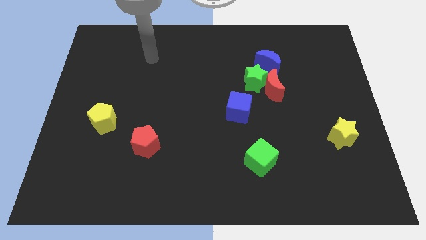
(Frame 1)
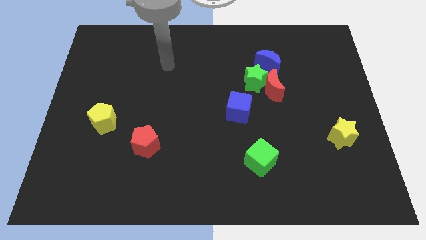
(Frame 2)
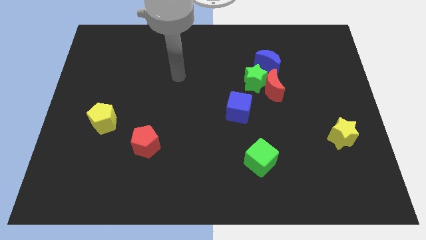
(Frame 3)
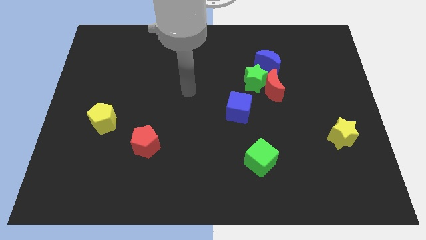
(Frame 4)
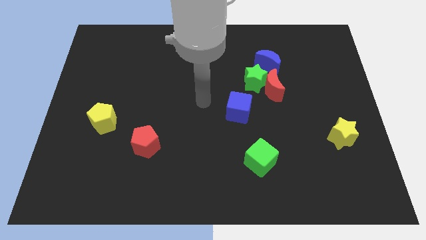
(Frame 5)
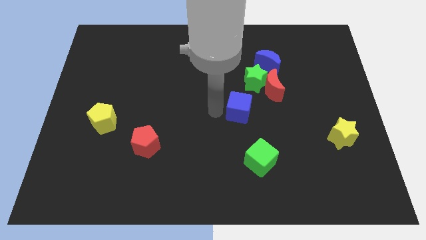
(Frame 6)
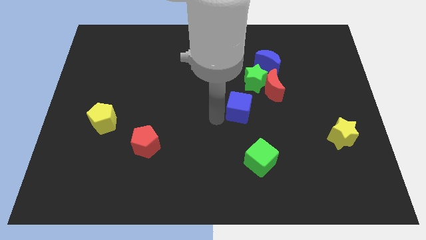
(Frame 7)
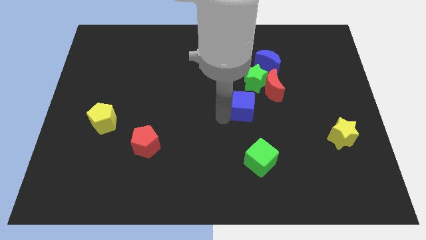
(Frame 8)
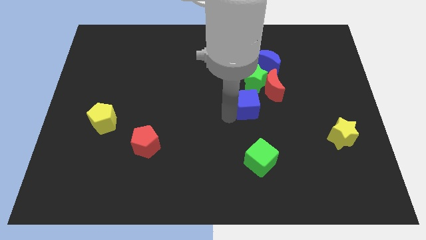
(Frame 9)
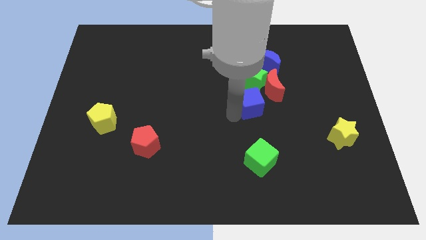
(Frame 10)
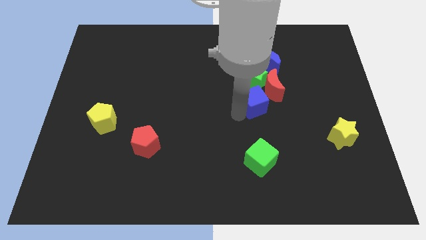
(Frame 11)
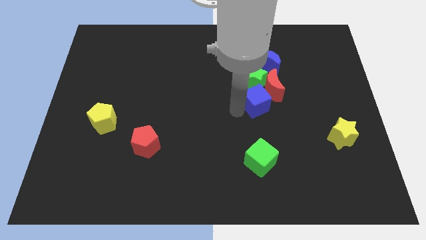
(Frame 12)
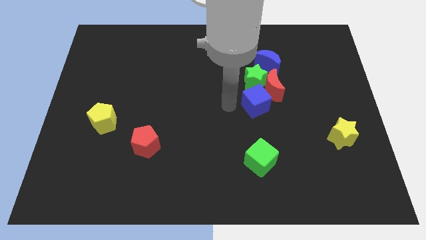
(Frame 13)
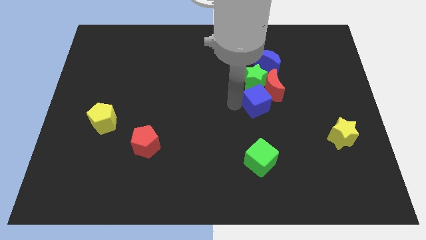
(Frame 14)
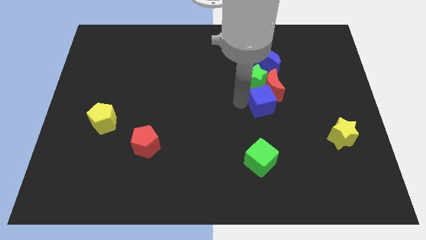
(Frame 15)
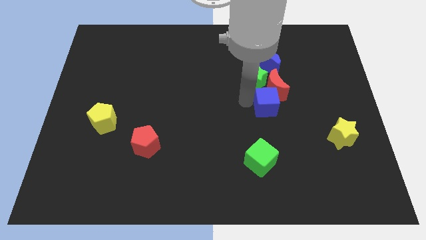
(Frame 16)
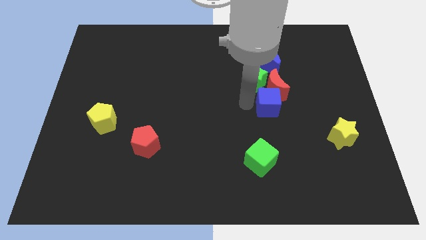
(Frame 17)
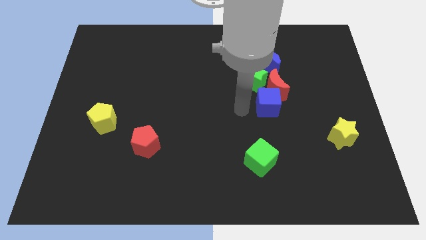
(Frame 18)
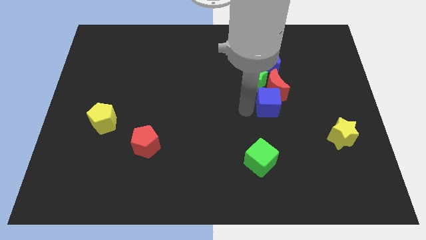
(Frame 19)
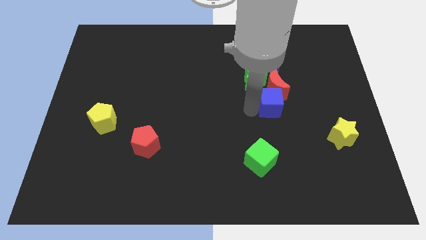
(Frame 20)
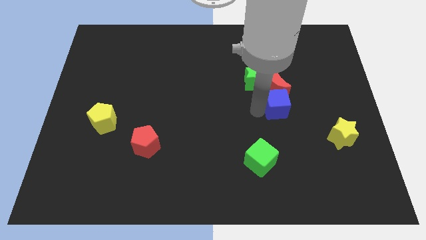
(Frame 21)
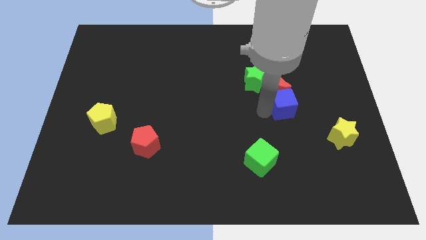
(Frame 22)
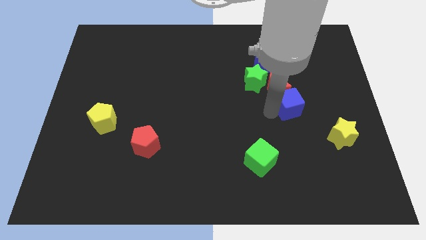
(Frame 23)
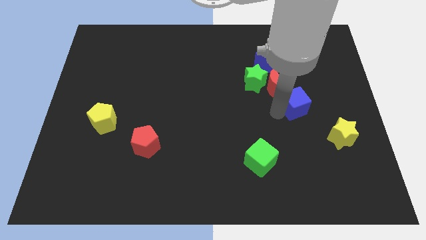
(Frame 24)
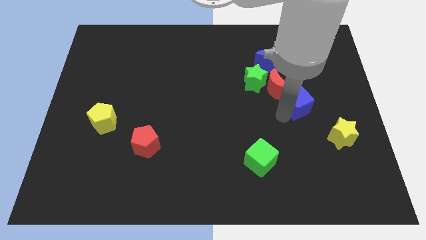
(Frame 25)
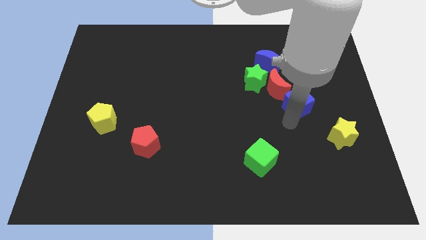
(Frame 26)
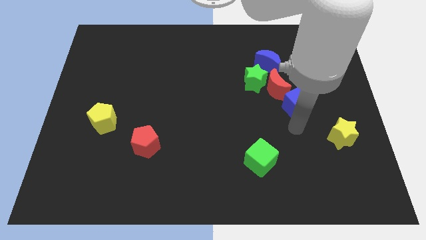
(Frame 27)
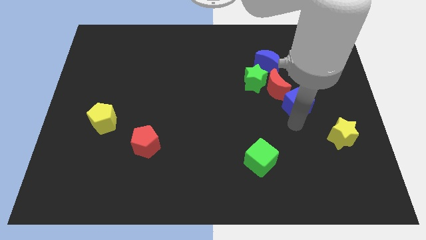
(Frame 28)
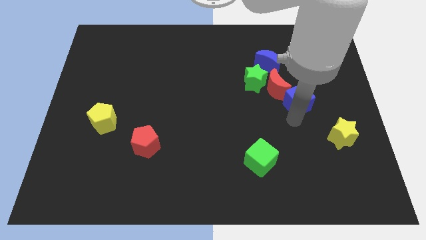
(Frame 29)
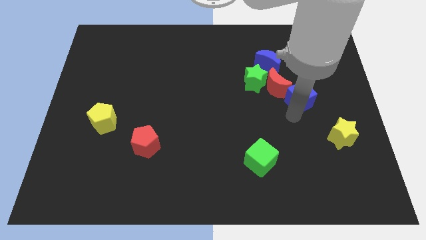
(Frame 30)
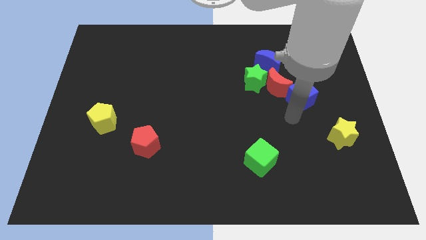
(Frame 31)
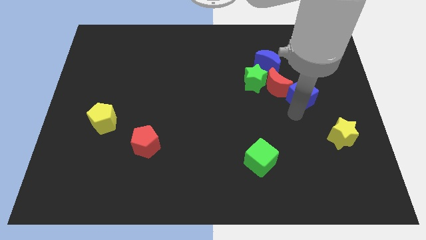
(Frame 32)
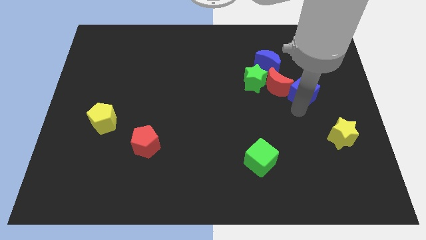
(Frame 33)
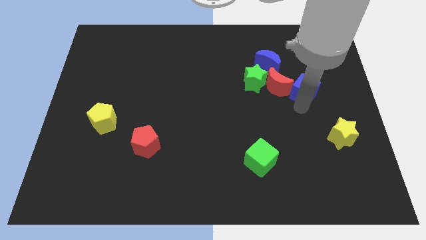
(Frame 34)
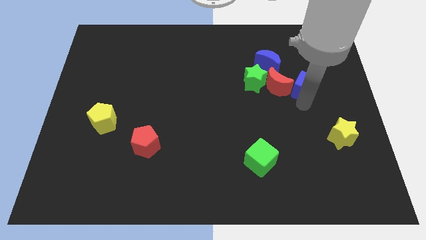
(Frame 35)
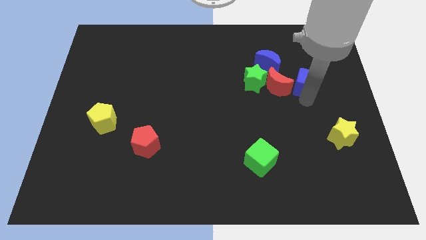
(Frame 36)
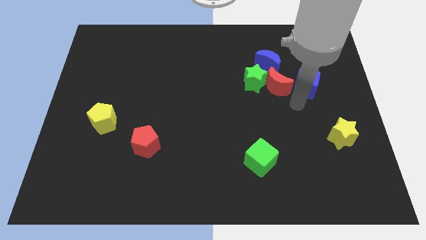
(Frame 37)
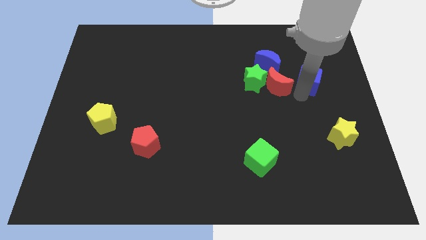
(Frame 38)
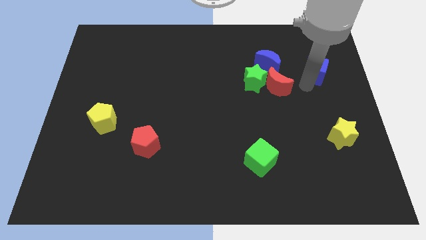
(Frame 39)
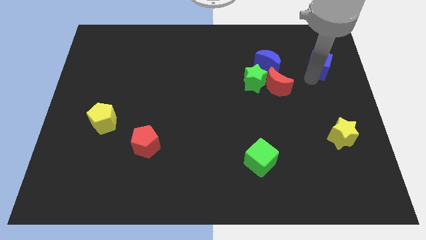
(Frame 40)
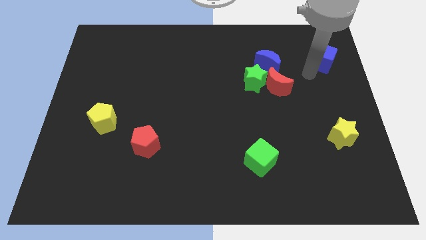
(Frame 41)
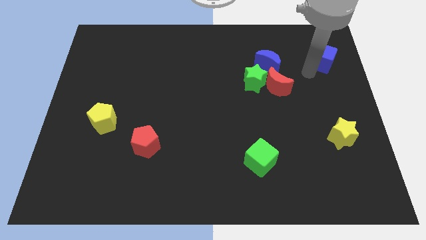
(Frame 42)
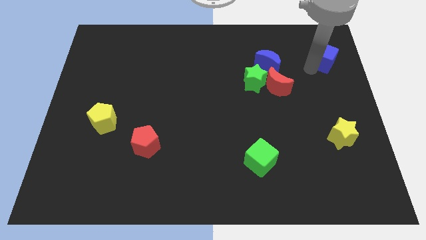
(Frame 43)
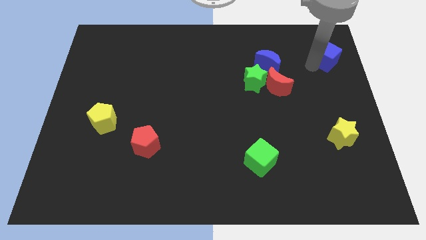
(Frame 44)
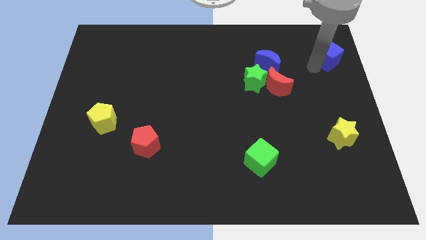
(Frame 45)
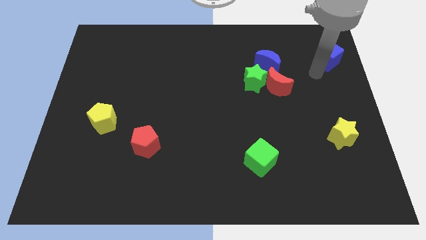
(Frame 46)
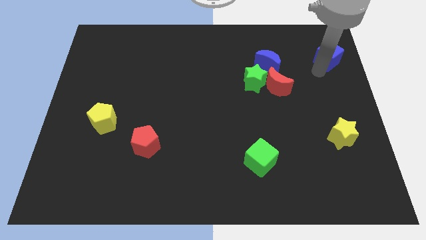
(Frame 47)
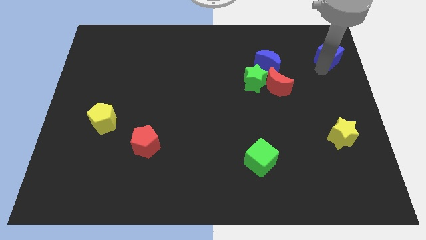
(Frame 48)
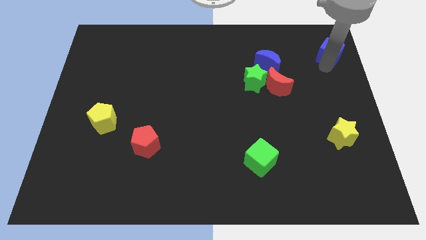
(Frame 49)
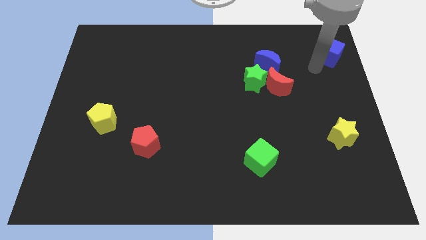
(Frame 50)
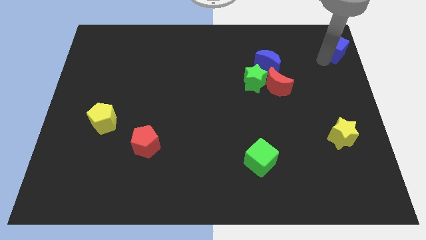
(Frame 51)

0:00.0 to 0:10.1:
push the blue cube to the top right of the board
